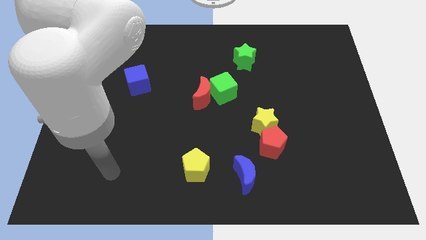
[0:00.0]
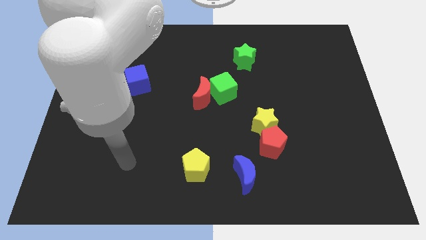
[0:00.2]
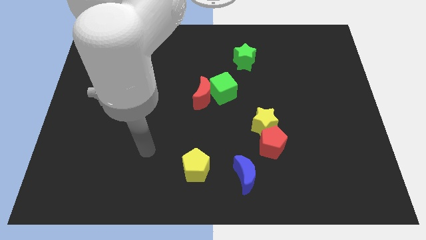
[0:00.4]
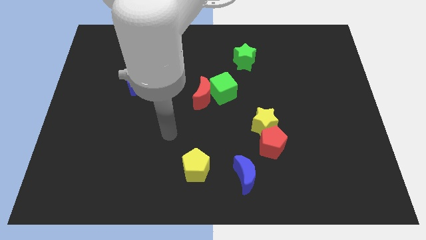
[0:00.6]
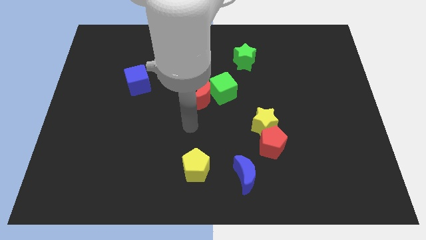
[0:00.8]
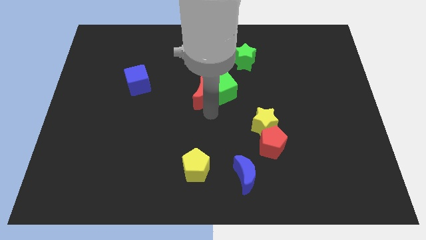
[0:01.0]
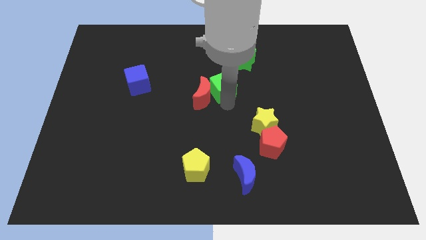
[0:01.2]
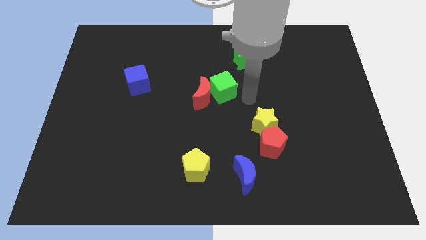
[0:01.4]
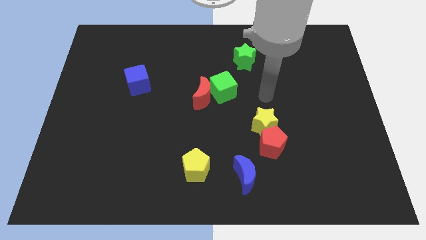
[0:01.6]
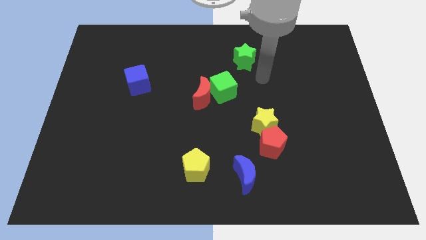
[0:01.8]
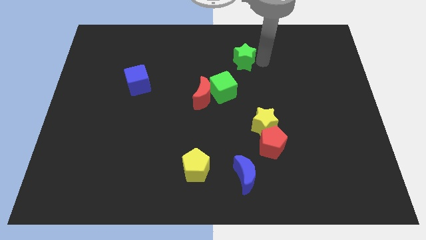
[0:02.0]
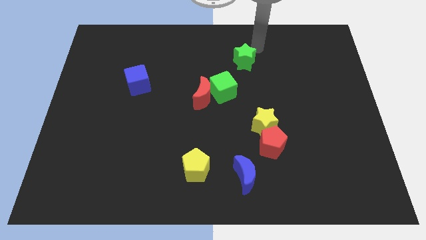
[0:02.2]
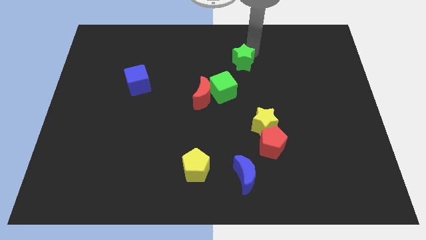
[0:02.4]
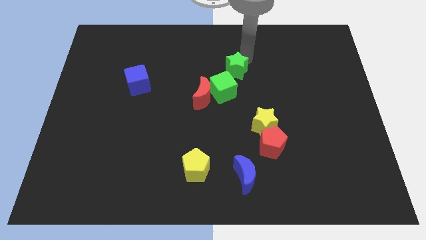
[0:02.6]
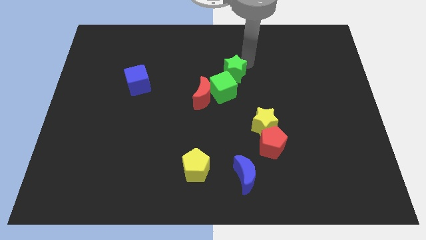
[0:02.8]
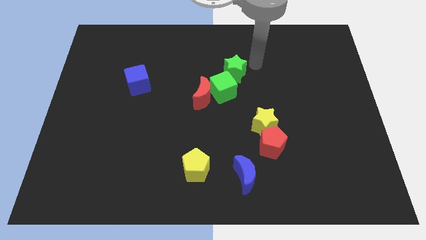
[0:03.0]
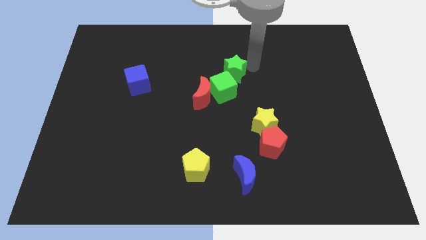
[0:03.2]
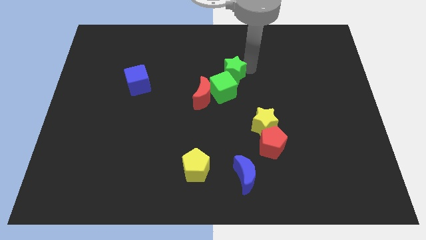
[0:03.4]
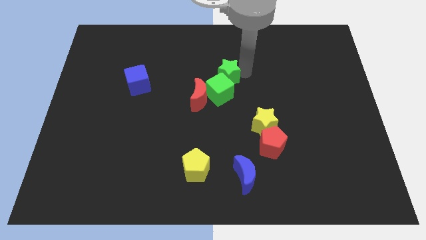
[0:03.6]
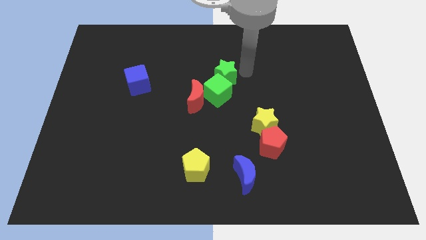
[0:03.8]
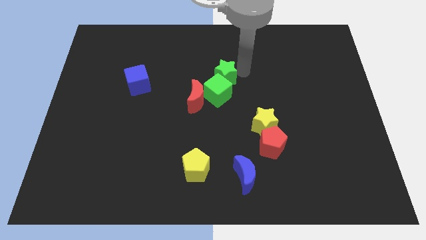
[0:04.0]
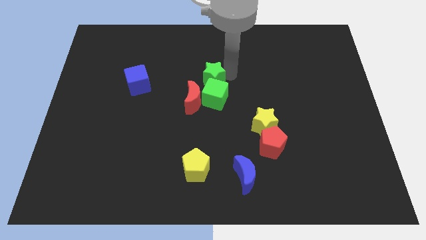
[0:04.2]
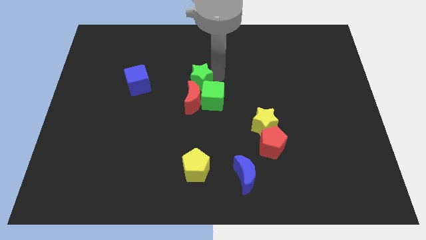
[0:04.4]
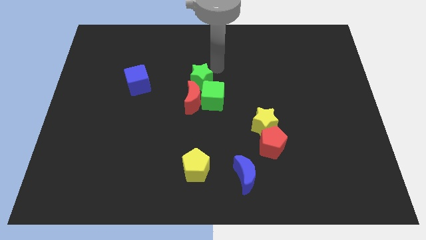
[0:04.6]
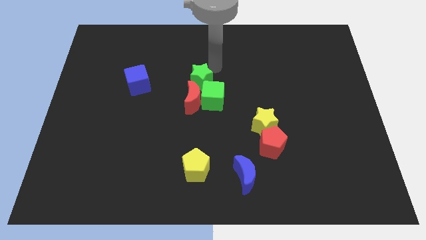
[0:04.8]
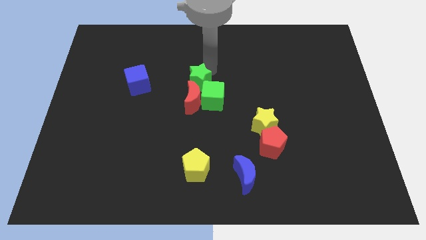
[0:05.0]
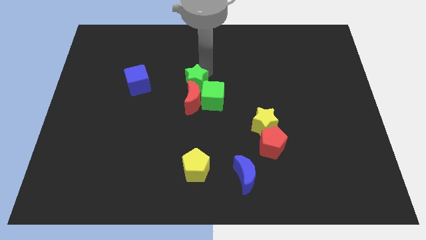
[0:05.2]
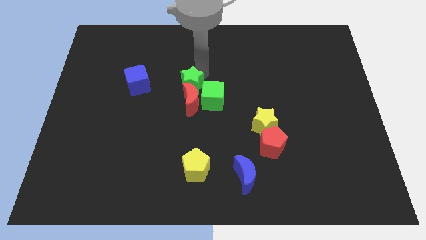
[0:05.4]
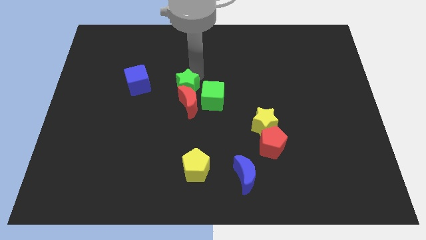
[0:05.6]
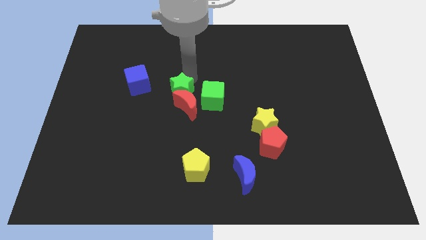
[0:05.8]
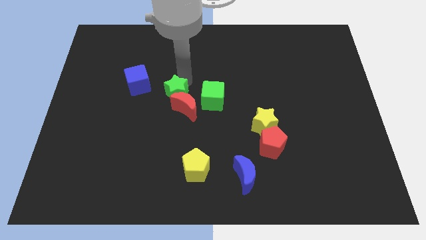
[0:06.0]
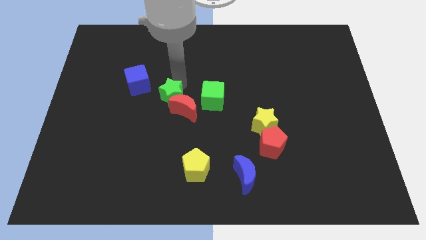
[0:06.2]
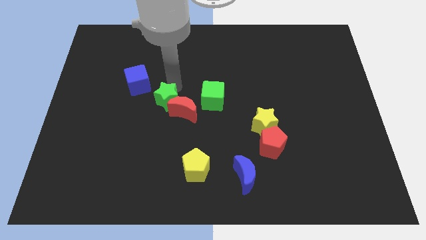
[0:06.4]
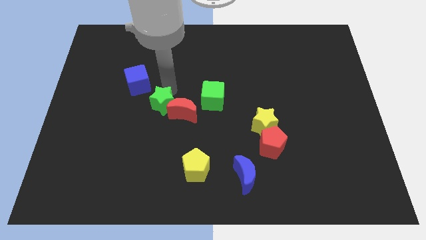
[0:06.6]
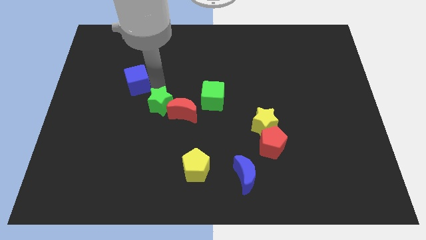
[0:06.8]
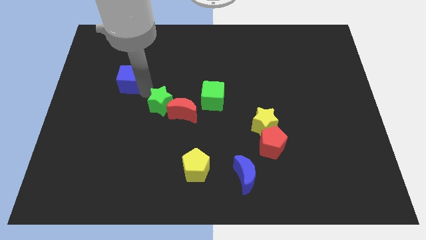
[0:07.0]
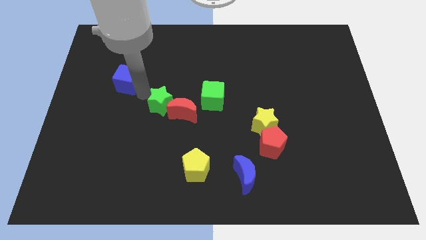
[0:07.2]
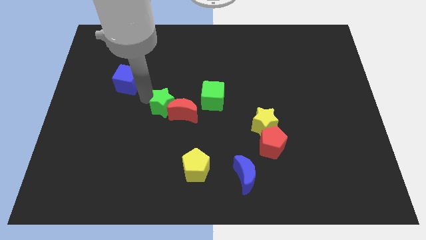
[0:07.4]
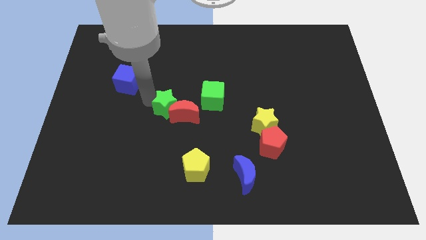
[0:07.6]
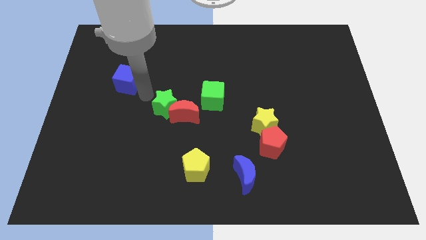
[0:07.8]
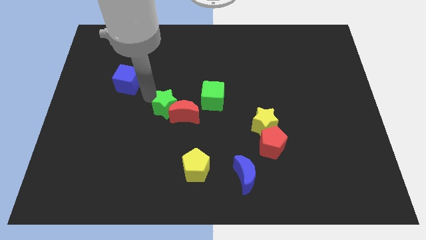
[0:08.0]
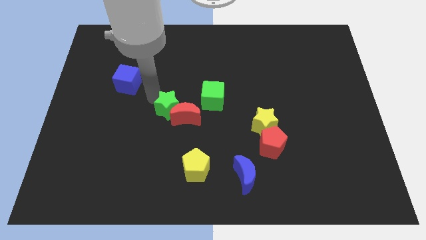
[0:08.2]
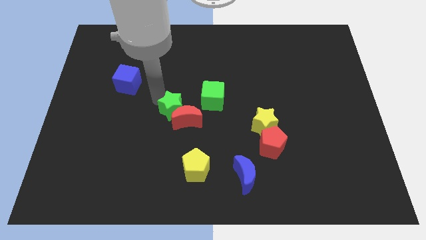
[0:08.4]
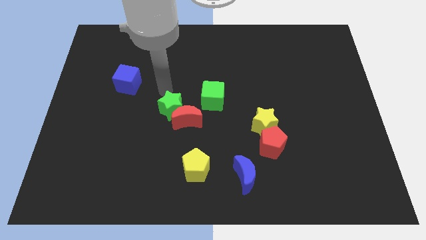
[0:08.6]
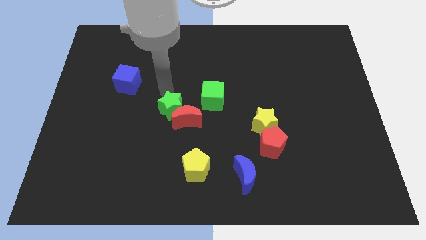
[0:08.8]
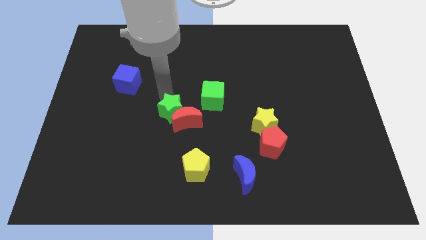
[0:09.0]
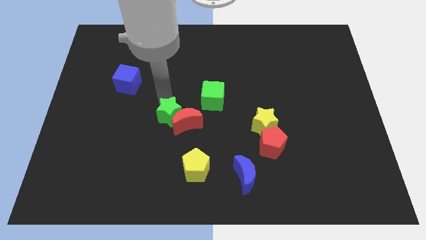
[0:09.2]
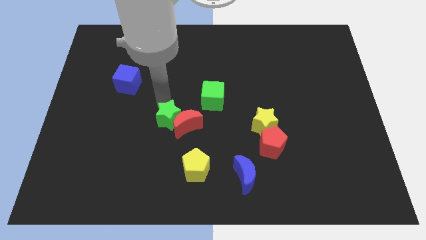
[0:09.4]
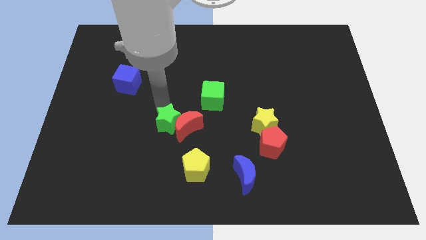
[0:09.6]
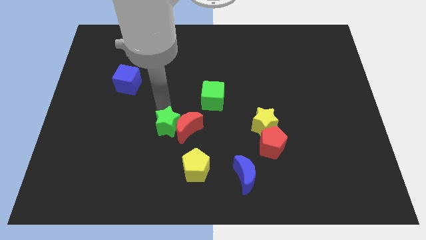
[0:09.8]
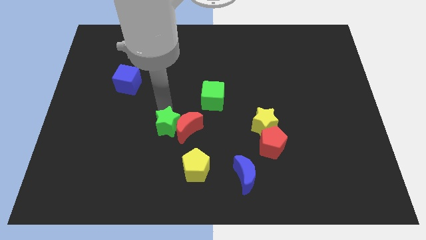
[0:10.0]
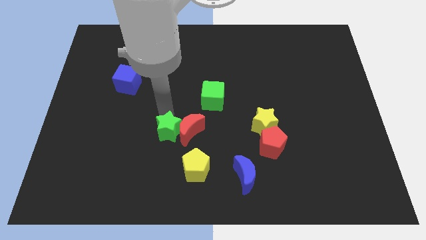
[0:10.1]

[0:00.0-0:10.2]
put the green star diagonally up and to the left of the yellow pentagon

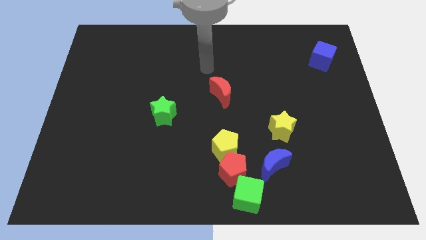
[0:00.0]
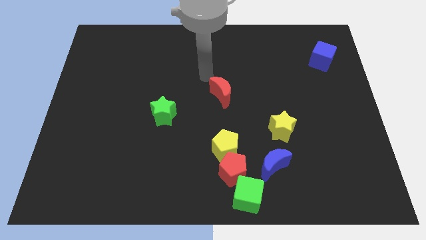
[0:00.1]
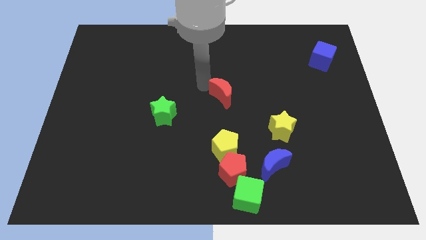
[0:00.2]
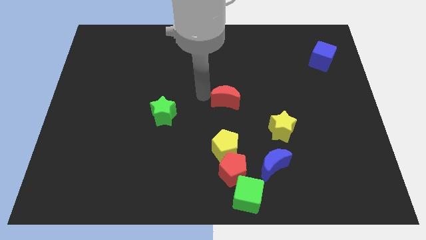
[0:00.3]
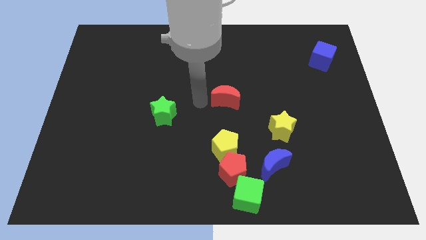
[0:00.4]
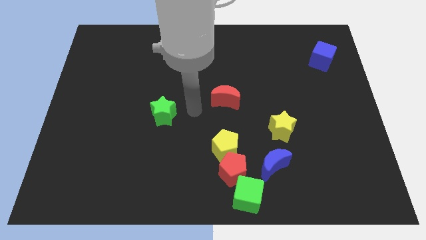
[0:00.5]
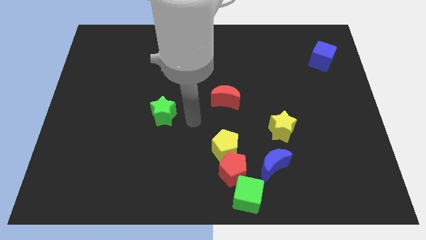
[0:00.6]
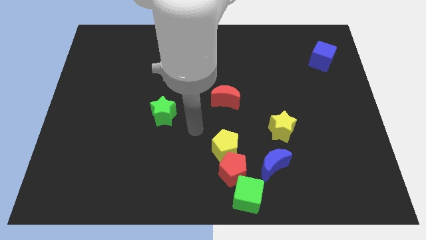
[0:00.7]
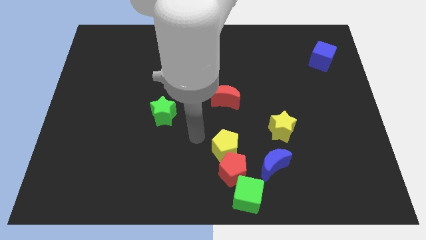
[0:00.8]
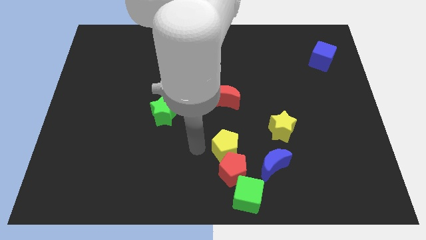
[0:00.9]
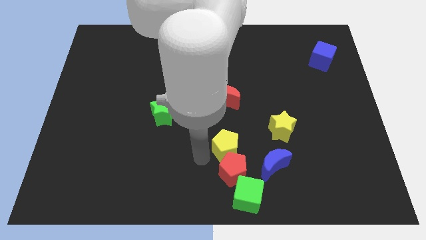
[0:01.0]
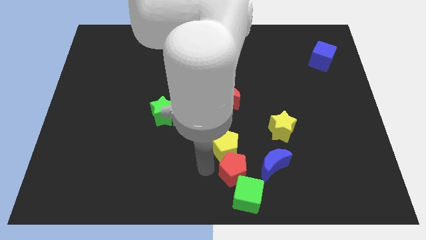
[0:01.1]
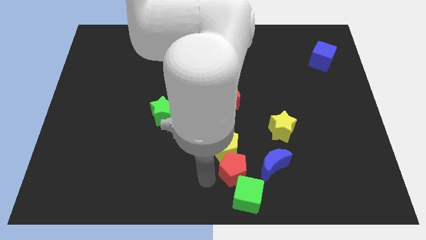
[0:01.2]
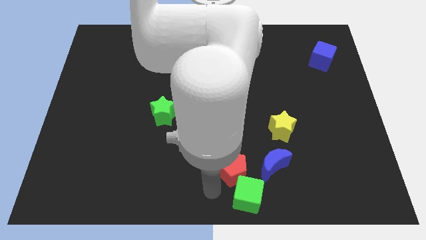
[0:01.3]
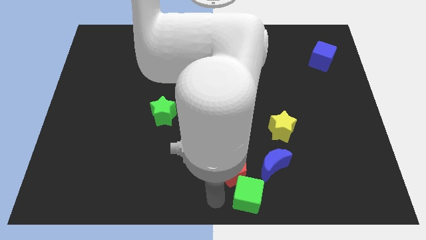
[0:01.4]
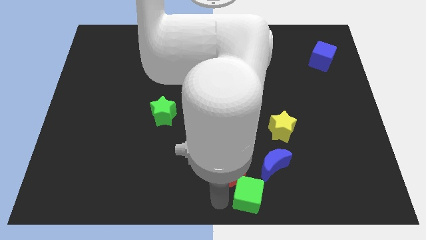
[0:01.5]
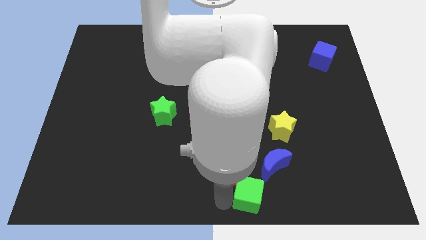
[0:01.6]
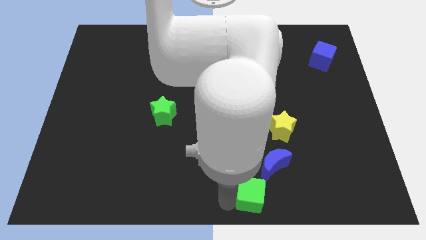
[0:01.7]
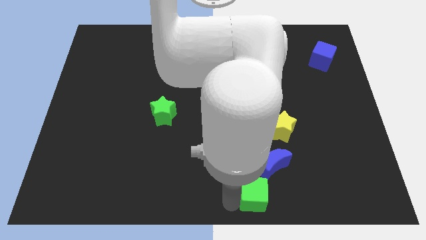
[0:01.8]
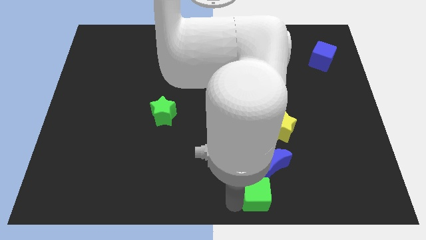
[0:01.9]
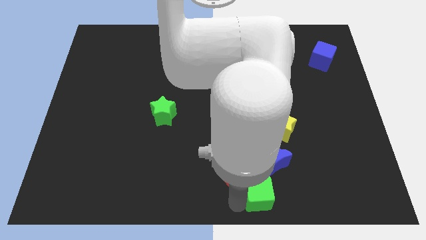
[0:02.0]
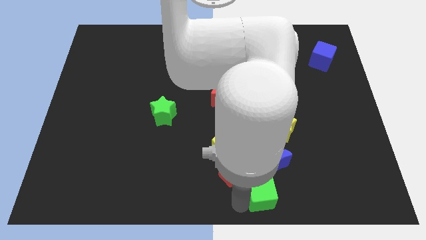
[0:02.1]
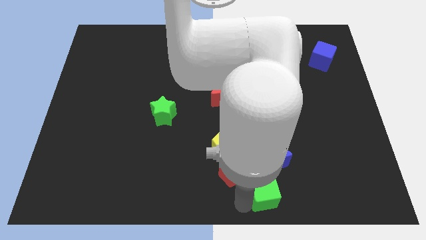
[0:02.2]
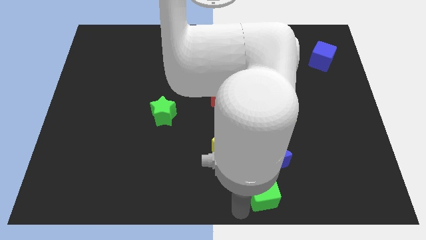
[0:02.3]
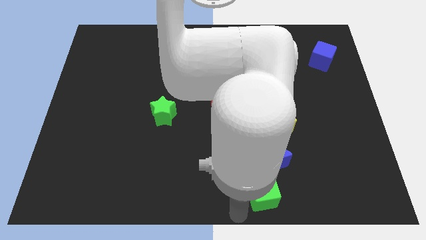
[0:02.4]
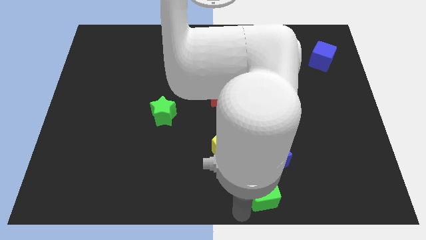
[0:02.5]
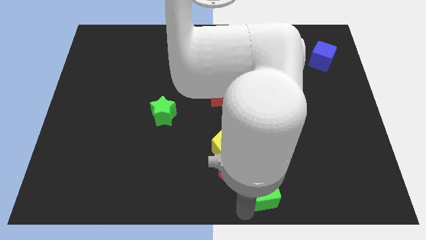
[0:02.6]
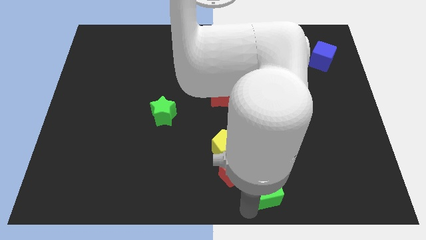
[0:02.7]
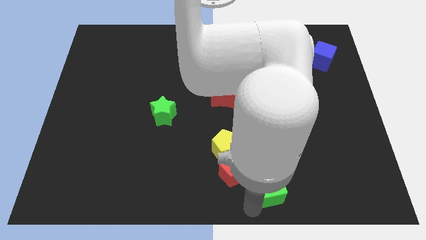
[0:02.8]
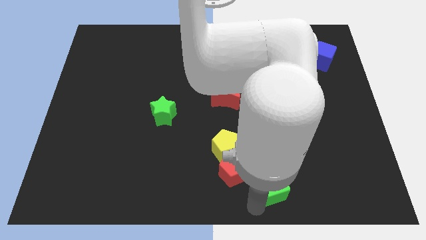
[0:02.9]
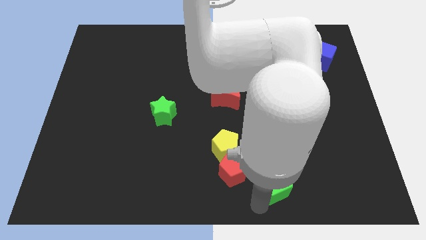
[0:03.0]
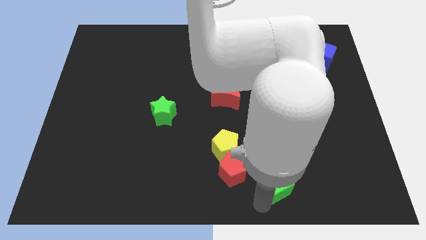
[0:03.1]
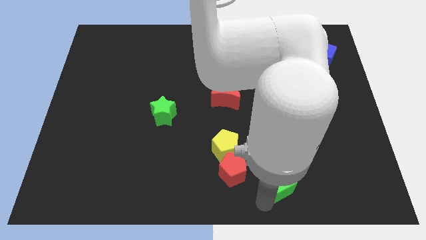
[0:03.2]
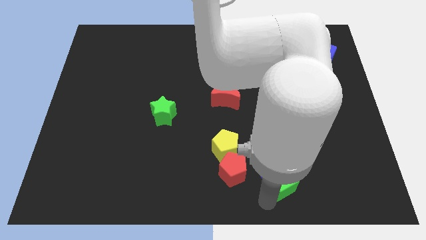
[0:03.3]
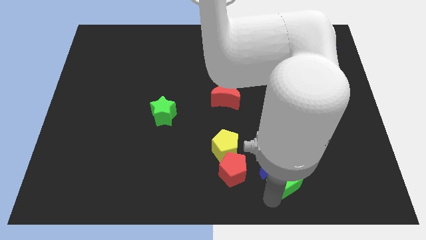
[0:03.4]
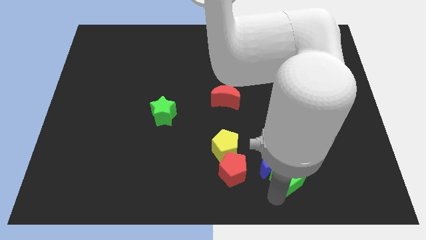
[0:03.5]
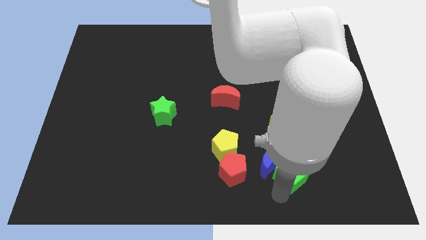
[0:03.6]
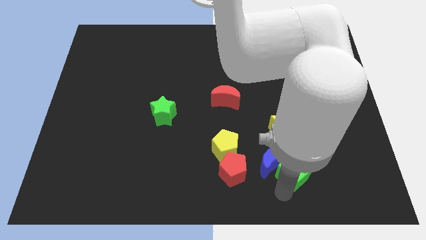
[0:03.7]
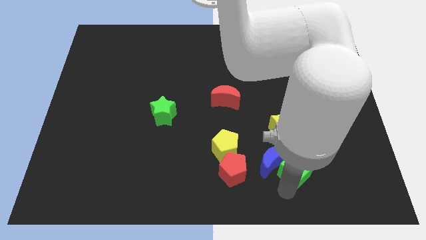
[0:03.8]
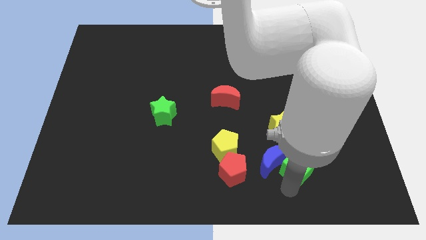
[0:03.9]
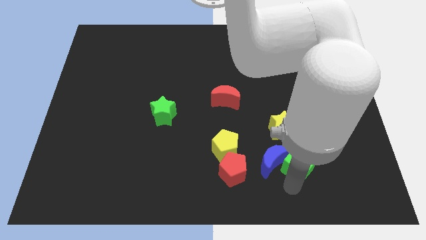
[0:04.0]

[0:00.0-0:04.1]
push the green cube to the bottom right side of the yellow star
